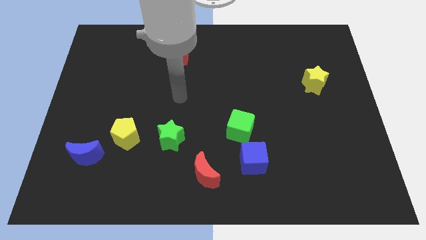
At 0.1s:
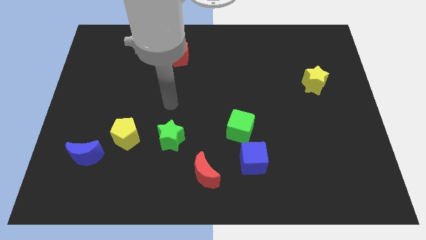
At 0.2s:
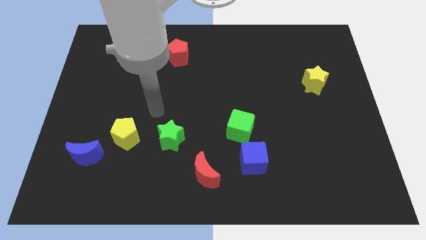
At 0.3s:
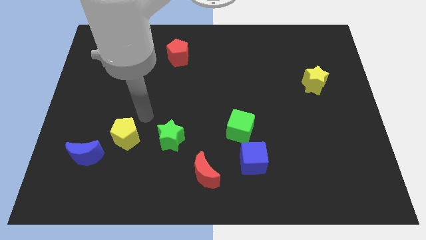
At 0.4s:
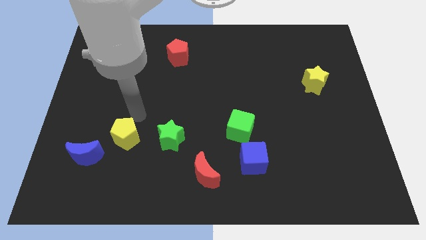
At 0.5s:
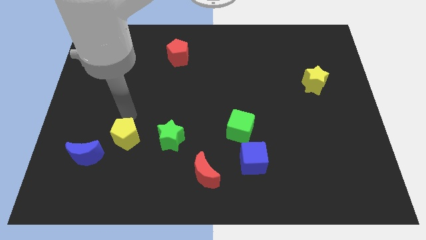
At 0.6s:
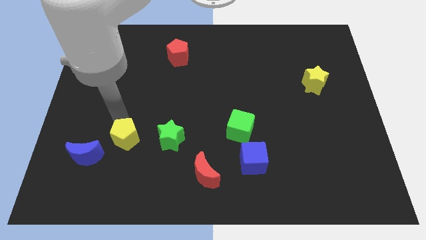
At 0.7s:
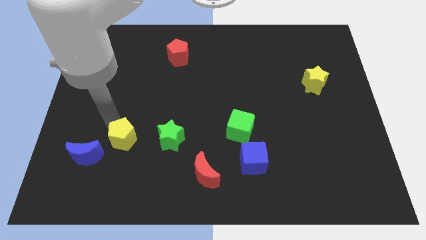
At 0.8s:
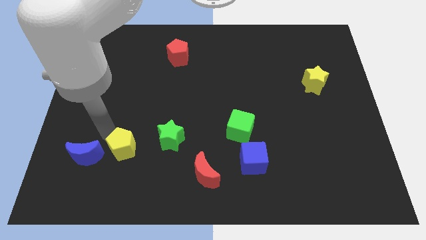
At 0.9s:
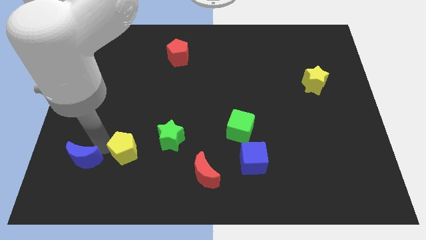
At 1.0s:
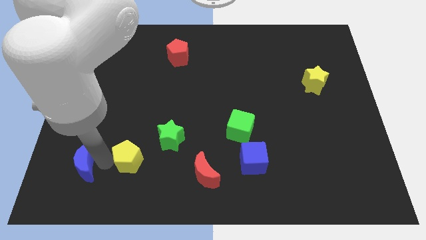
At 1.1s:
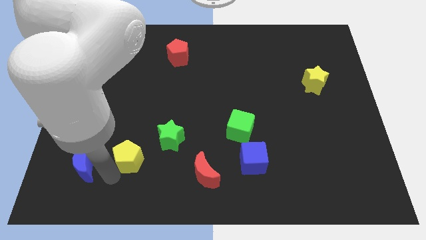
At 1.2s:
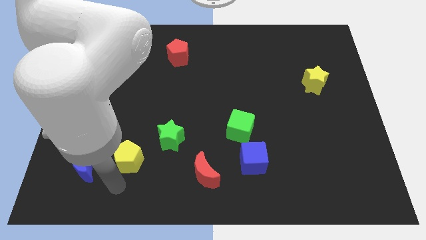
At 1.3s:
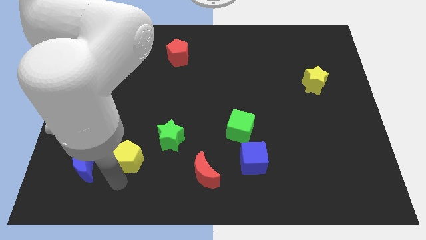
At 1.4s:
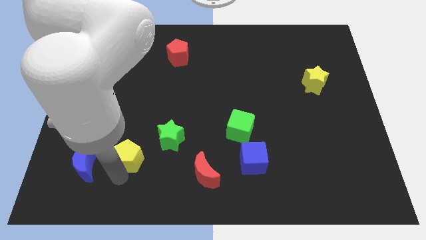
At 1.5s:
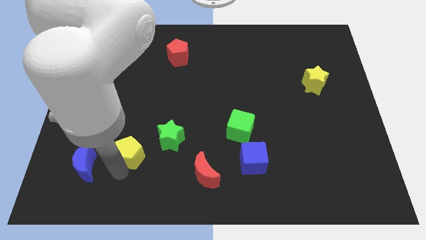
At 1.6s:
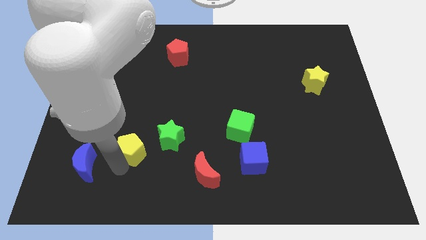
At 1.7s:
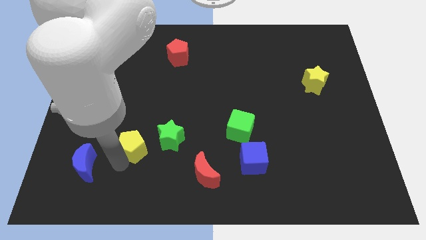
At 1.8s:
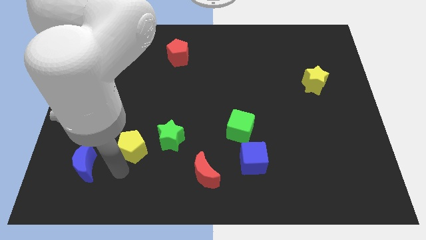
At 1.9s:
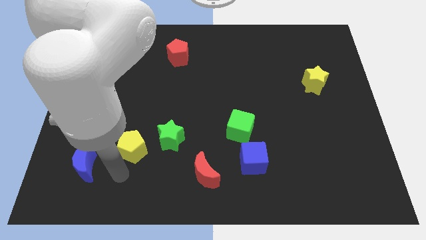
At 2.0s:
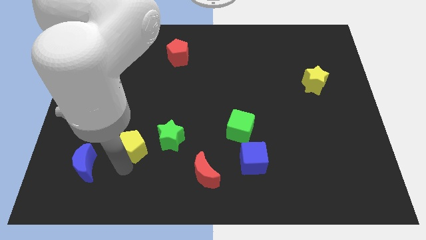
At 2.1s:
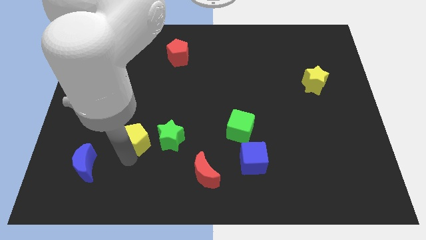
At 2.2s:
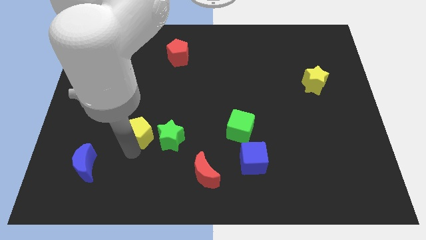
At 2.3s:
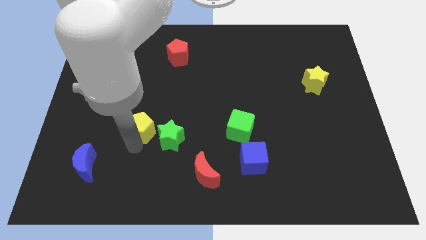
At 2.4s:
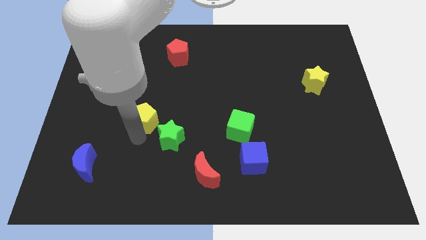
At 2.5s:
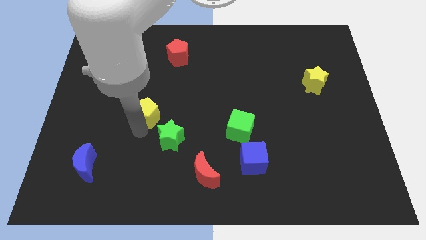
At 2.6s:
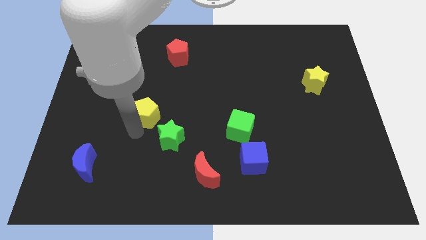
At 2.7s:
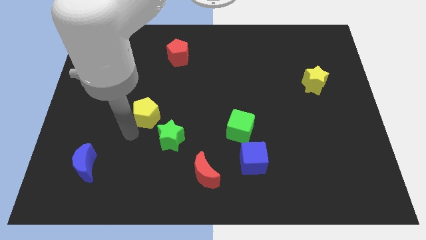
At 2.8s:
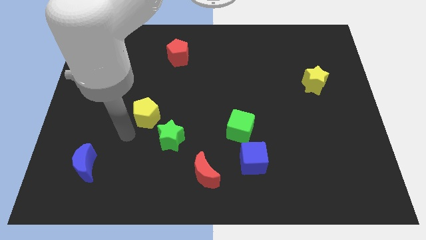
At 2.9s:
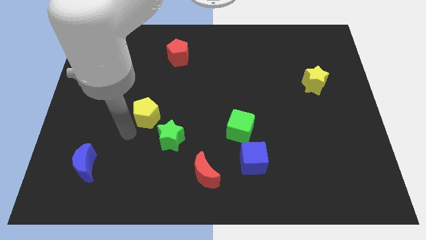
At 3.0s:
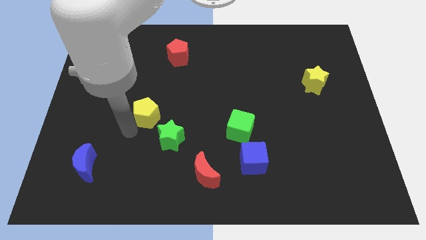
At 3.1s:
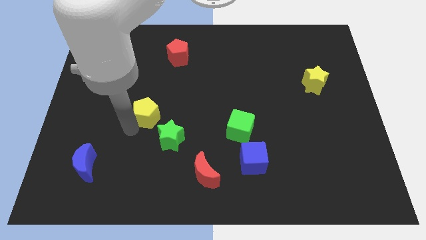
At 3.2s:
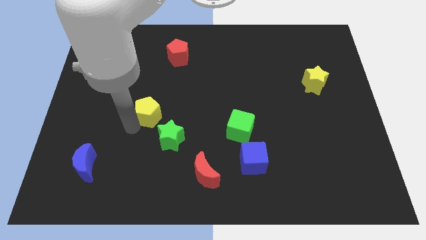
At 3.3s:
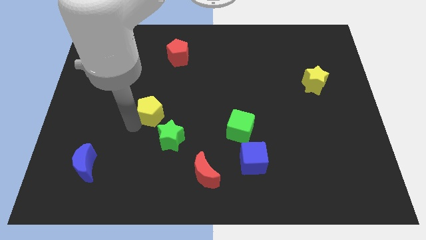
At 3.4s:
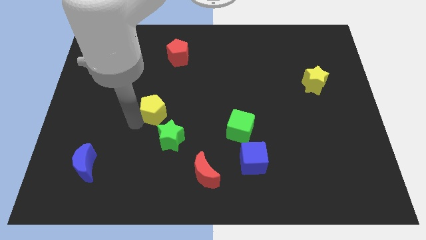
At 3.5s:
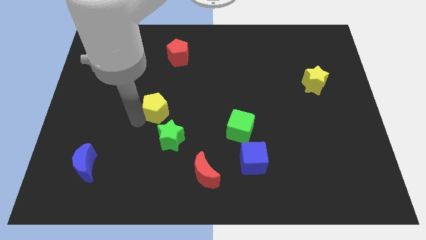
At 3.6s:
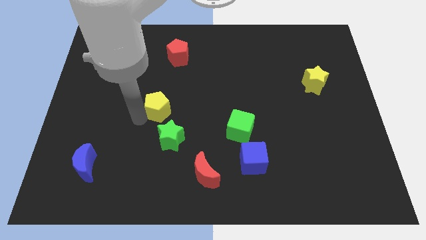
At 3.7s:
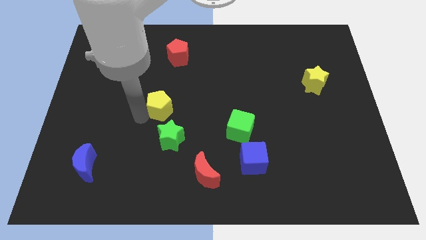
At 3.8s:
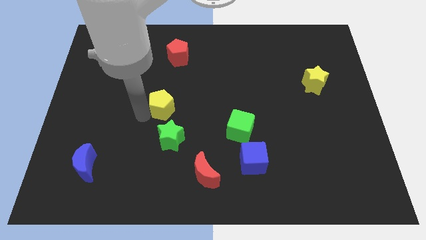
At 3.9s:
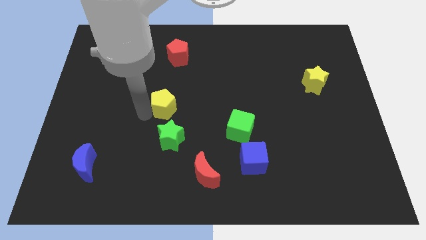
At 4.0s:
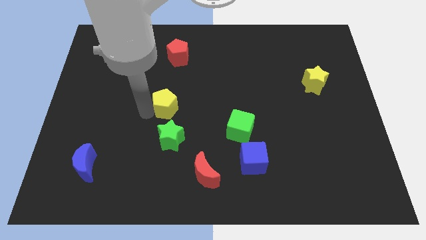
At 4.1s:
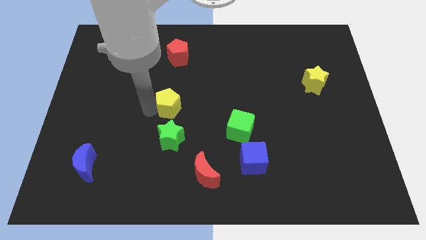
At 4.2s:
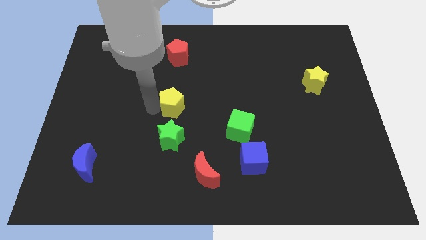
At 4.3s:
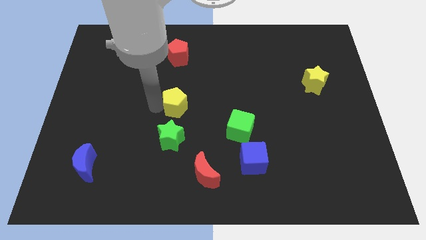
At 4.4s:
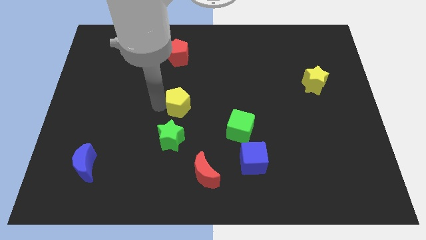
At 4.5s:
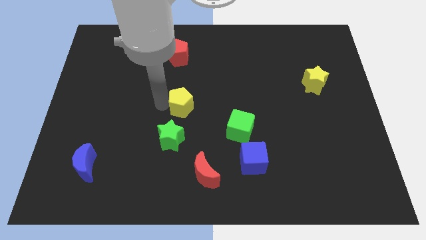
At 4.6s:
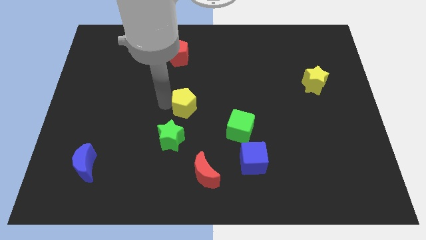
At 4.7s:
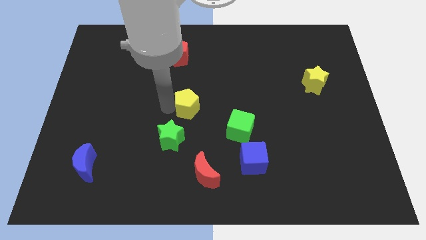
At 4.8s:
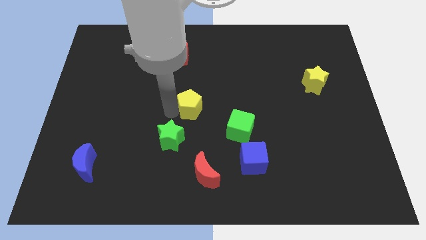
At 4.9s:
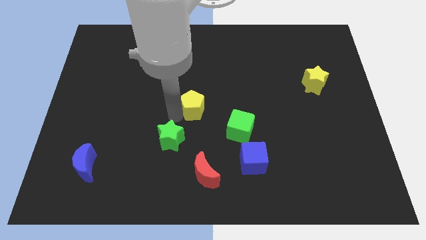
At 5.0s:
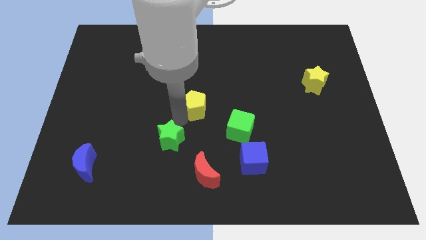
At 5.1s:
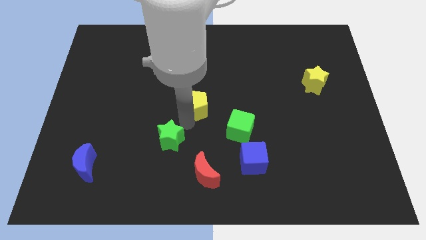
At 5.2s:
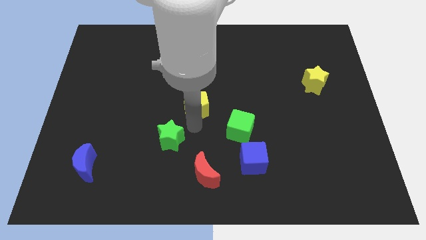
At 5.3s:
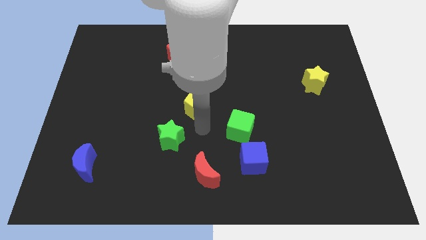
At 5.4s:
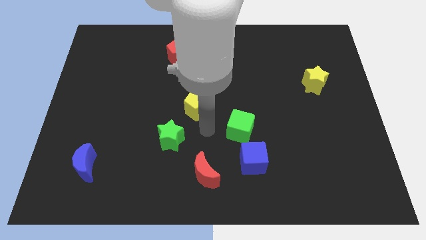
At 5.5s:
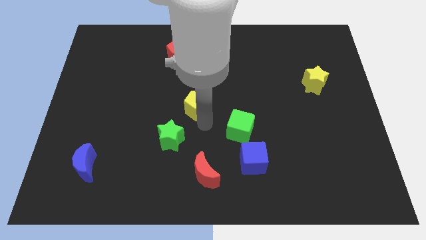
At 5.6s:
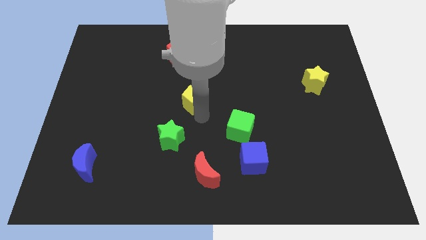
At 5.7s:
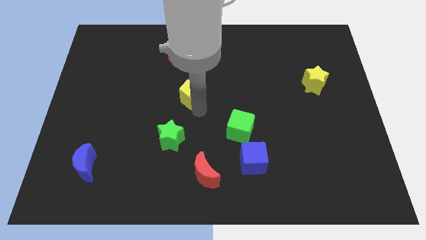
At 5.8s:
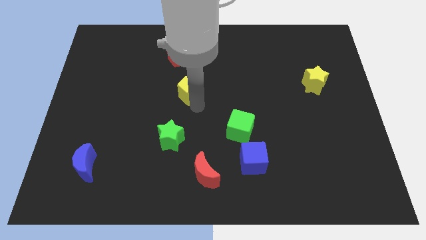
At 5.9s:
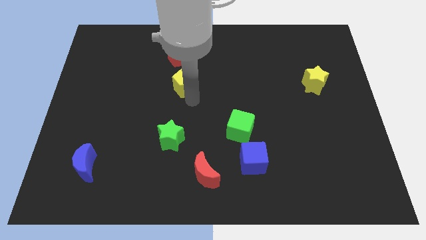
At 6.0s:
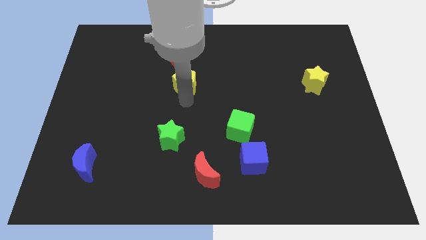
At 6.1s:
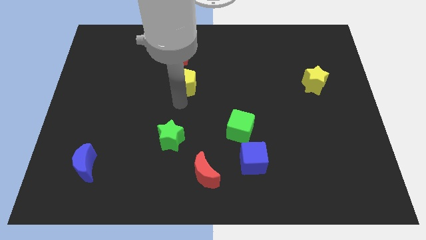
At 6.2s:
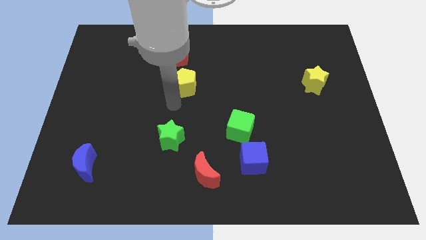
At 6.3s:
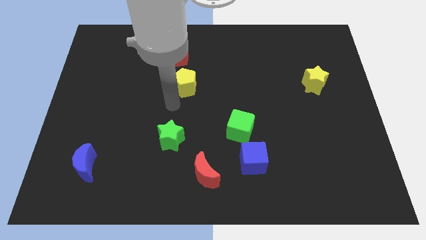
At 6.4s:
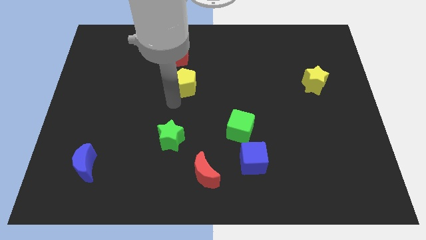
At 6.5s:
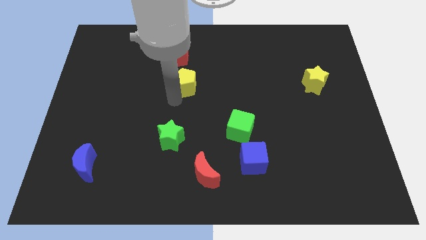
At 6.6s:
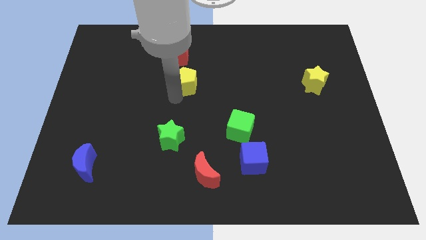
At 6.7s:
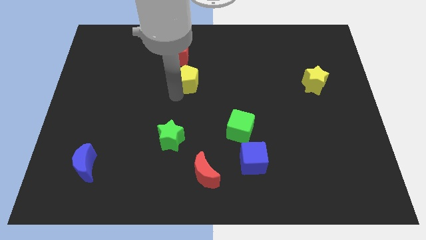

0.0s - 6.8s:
put the yellow pentagon to the bottom right side of the red pentagon
